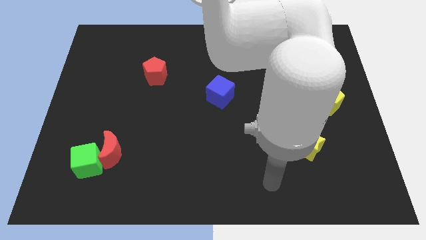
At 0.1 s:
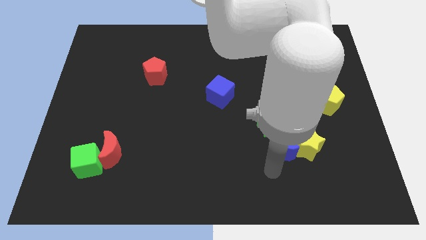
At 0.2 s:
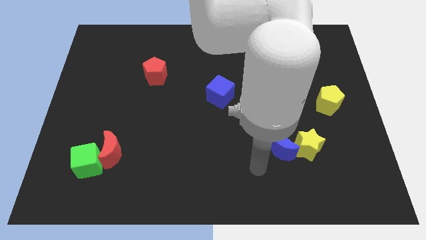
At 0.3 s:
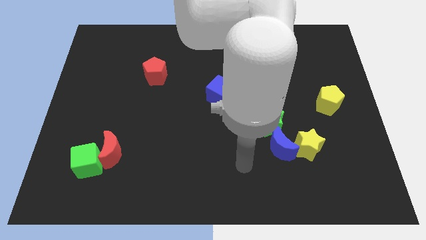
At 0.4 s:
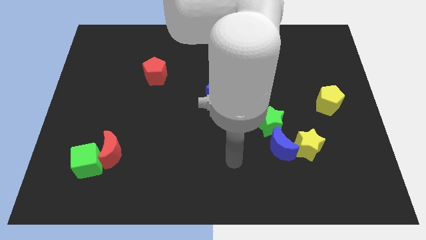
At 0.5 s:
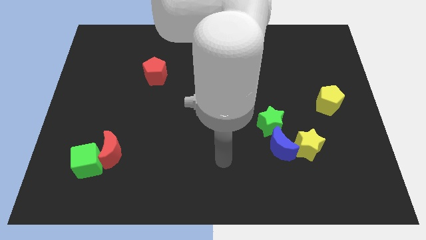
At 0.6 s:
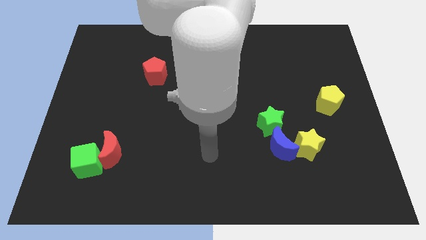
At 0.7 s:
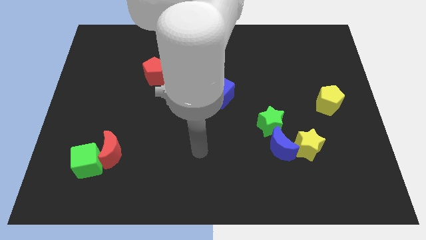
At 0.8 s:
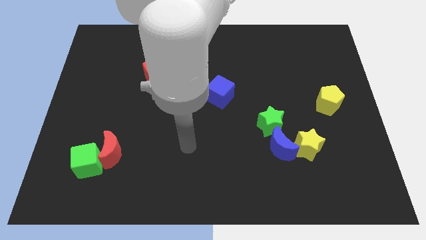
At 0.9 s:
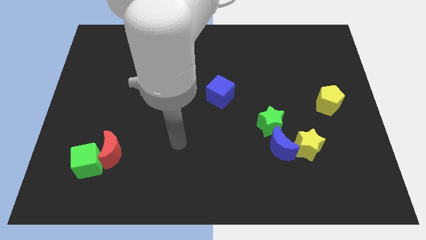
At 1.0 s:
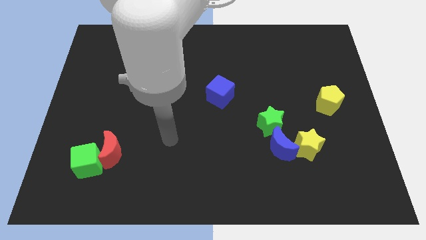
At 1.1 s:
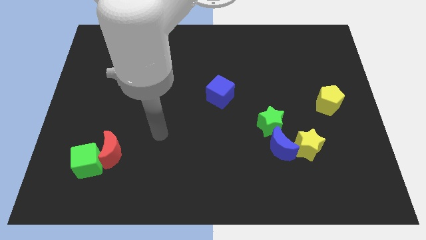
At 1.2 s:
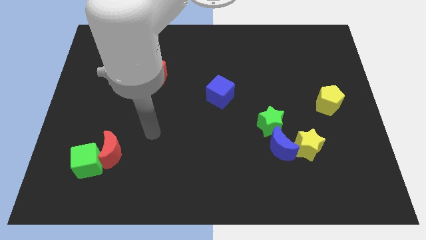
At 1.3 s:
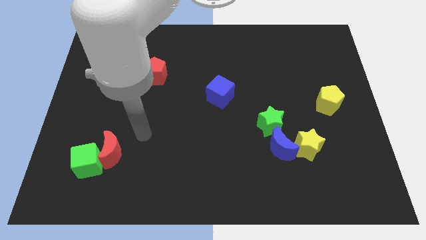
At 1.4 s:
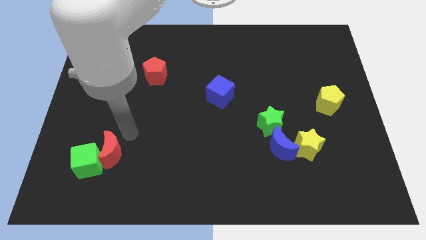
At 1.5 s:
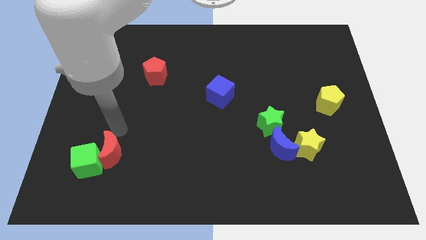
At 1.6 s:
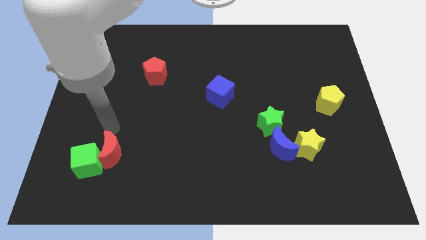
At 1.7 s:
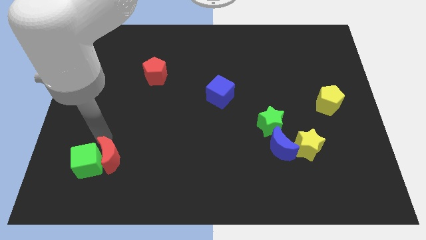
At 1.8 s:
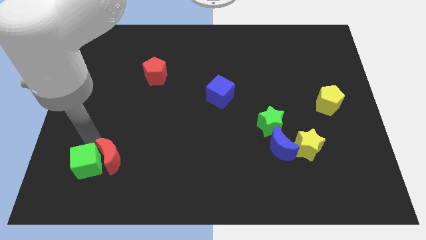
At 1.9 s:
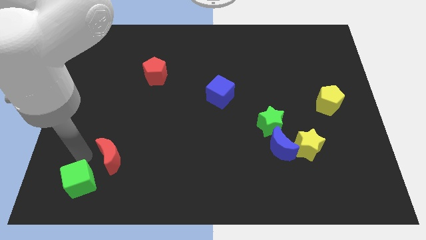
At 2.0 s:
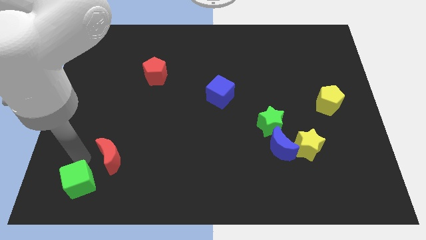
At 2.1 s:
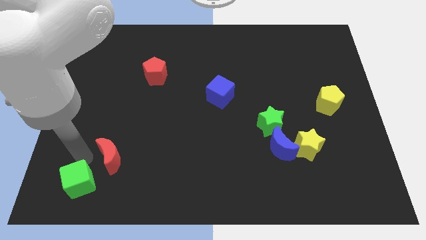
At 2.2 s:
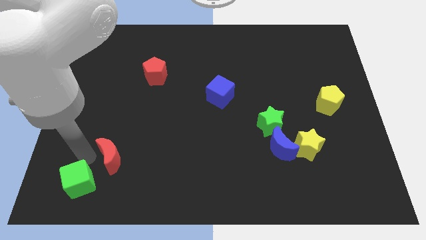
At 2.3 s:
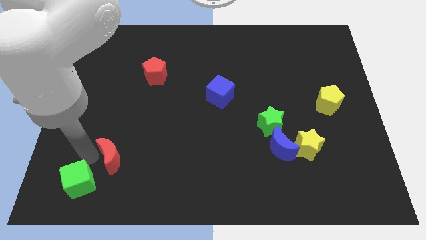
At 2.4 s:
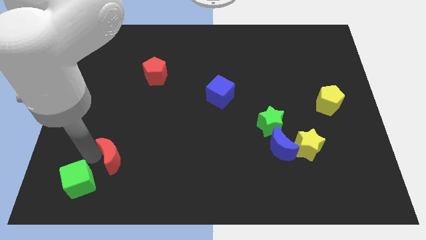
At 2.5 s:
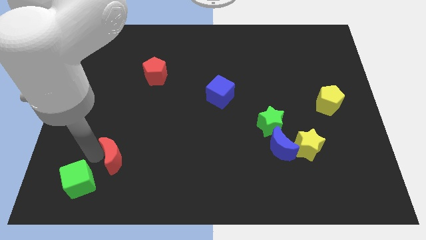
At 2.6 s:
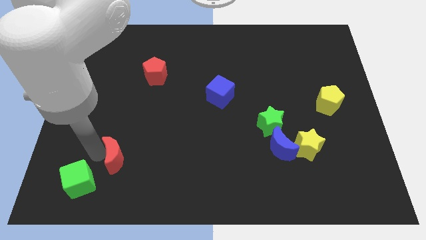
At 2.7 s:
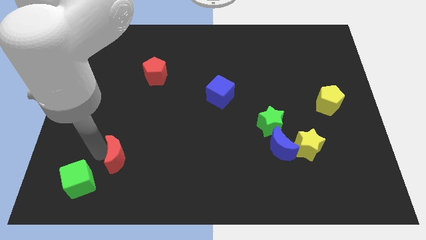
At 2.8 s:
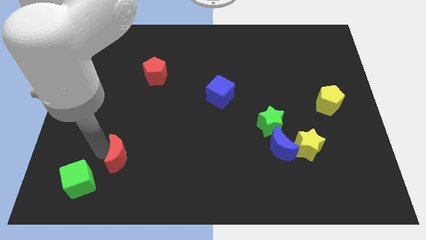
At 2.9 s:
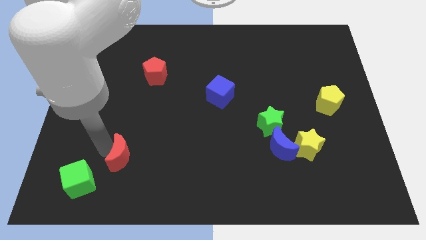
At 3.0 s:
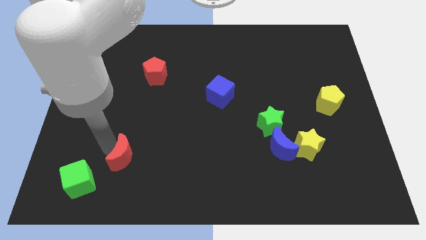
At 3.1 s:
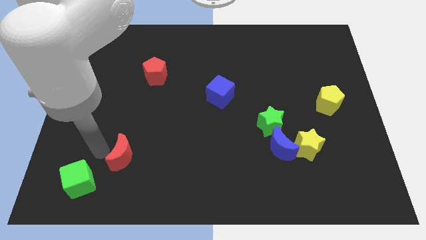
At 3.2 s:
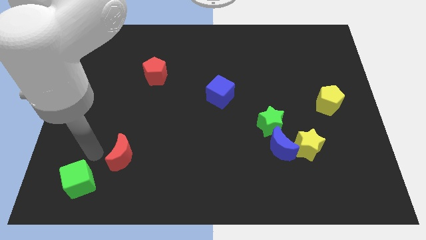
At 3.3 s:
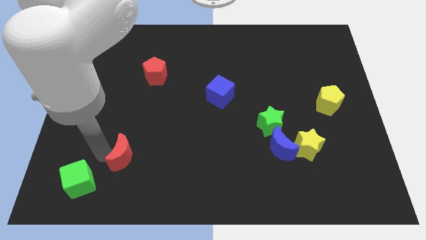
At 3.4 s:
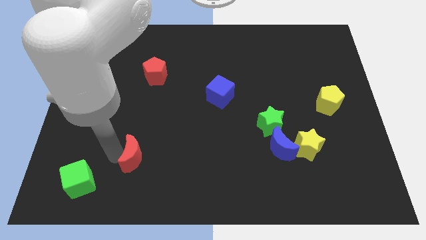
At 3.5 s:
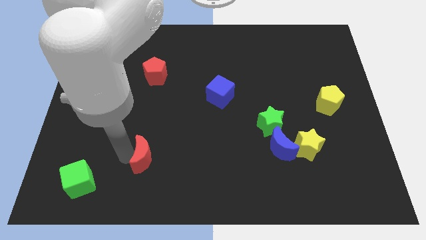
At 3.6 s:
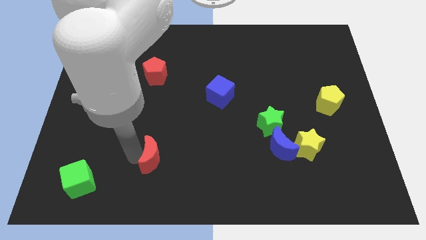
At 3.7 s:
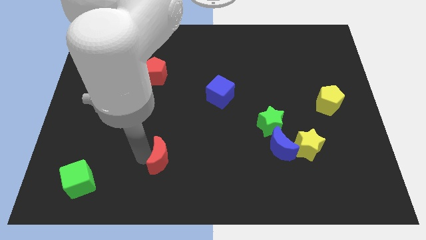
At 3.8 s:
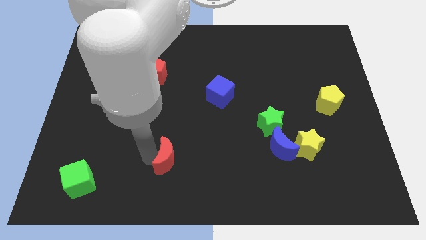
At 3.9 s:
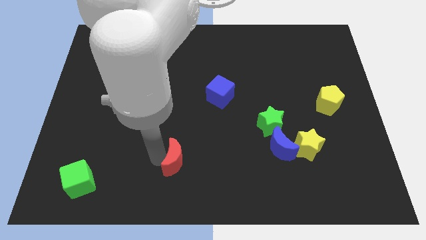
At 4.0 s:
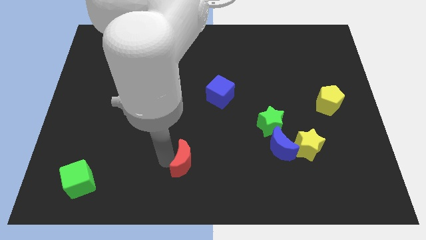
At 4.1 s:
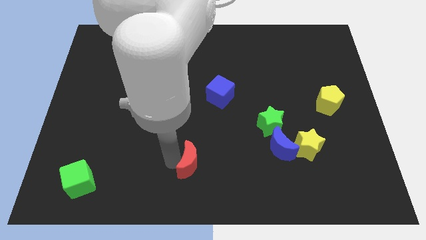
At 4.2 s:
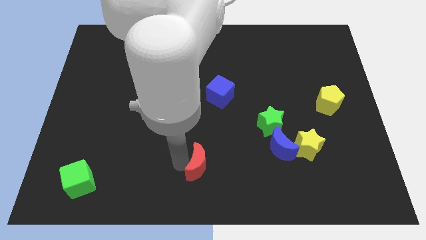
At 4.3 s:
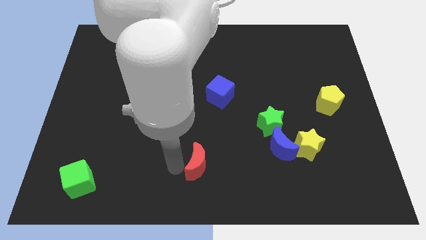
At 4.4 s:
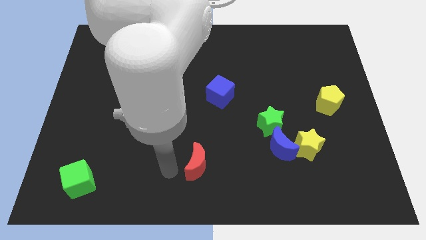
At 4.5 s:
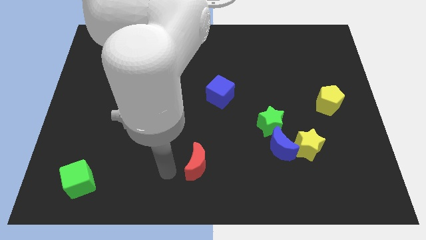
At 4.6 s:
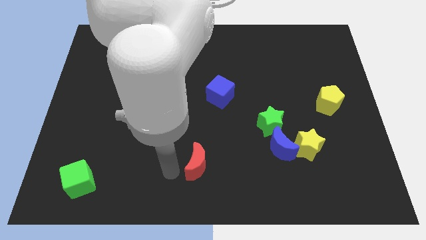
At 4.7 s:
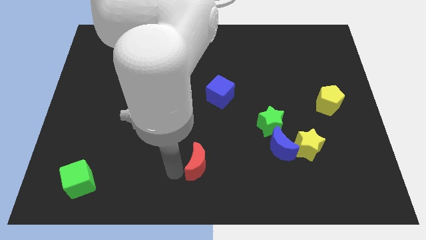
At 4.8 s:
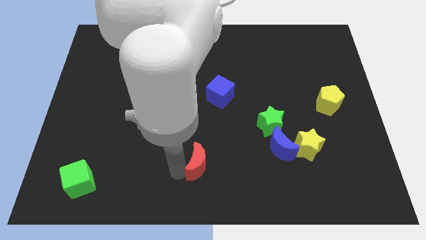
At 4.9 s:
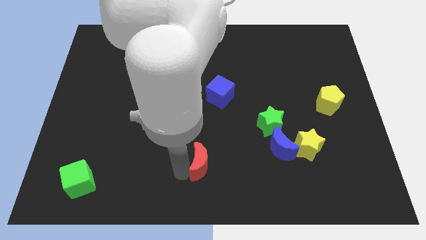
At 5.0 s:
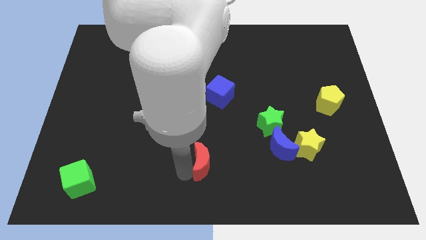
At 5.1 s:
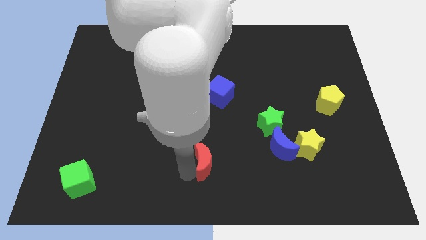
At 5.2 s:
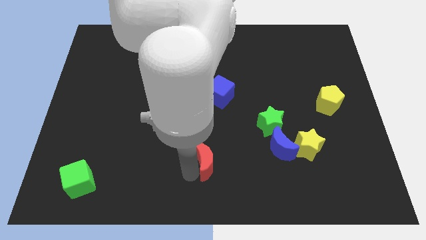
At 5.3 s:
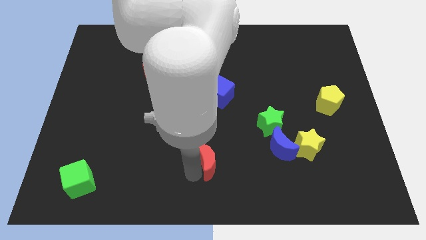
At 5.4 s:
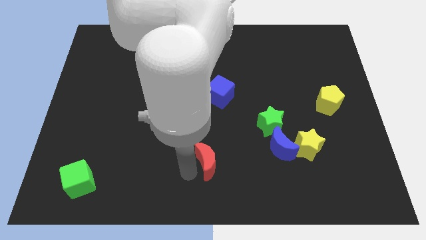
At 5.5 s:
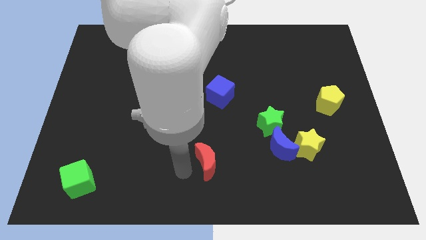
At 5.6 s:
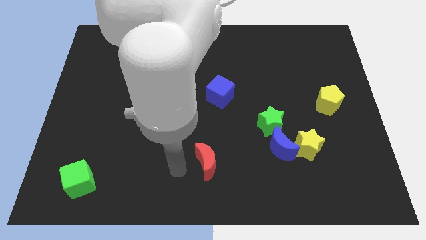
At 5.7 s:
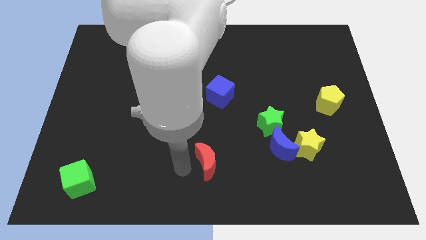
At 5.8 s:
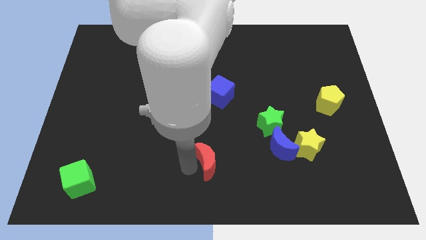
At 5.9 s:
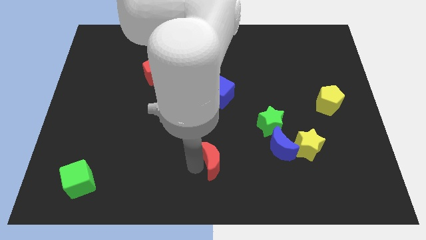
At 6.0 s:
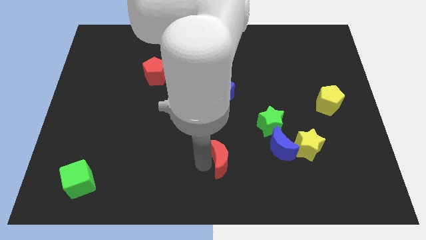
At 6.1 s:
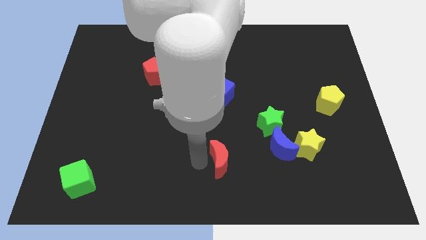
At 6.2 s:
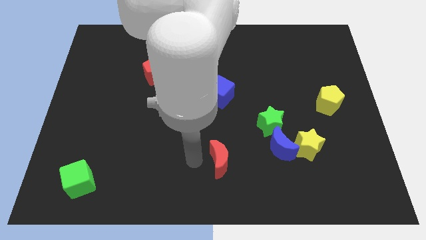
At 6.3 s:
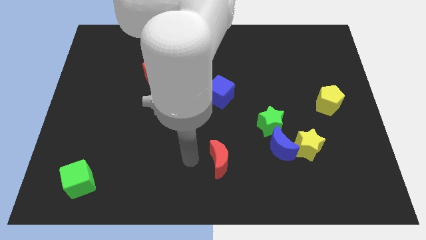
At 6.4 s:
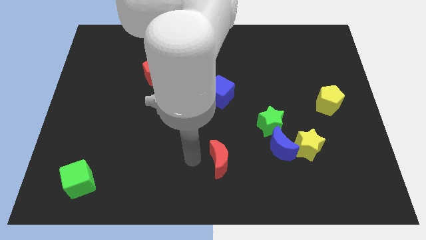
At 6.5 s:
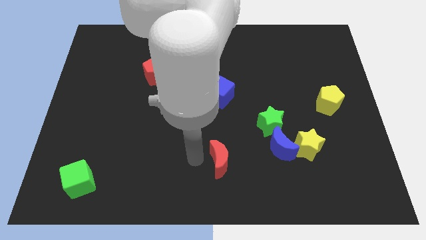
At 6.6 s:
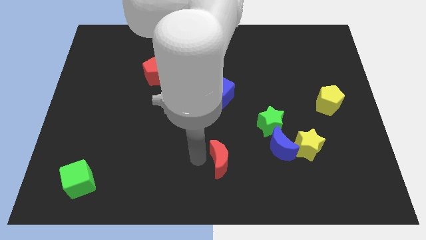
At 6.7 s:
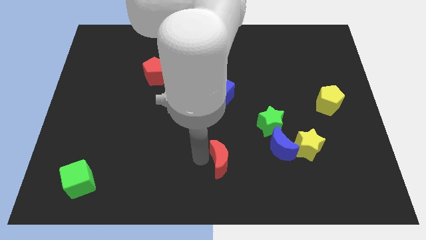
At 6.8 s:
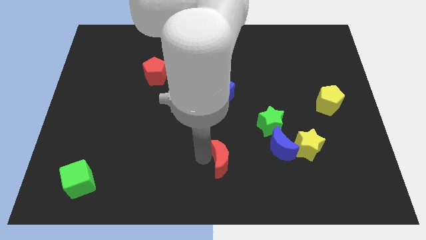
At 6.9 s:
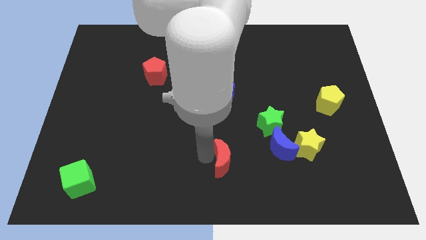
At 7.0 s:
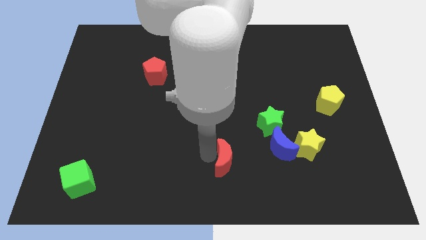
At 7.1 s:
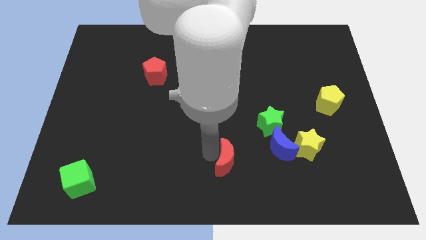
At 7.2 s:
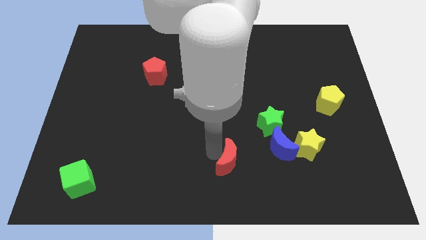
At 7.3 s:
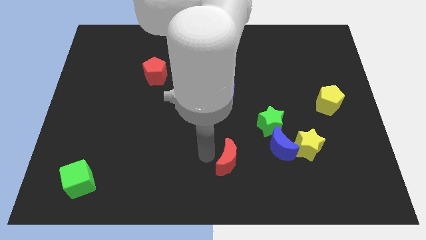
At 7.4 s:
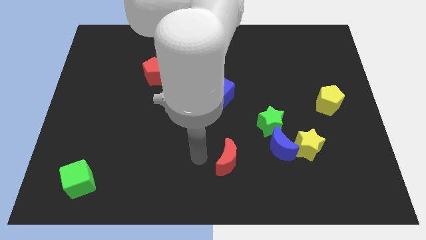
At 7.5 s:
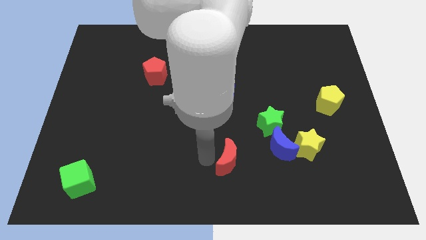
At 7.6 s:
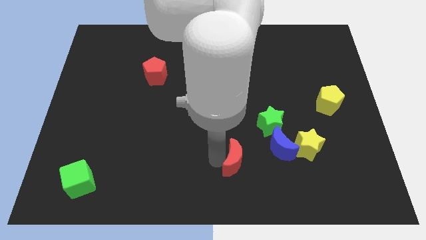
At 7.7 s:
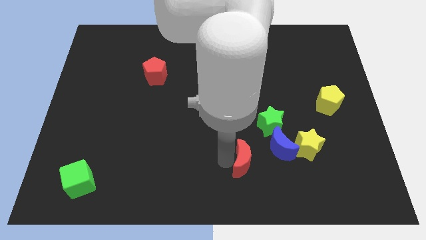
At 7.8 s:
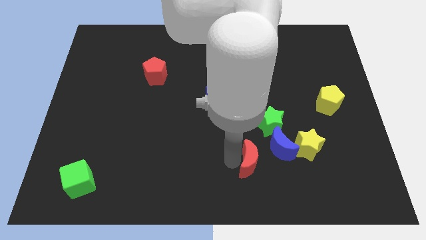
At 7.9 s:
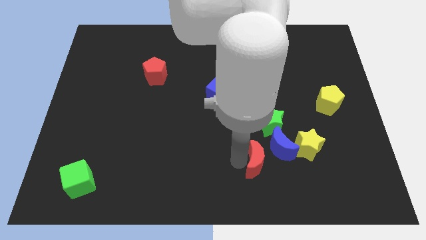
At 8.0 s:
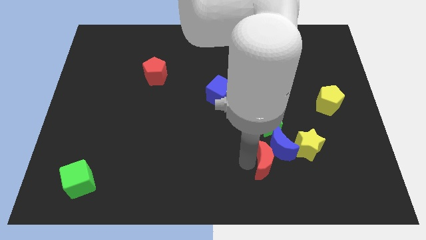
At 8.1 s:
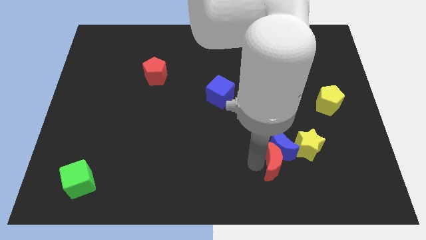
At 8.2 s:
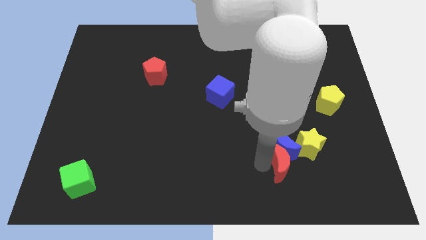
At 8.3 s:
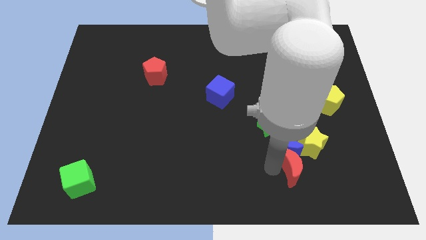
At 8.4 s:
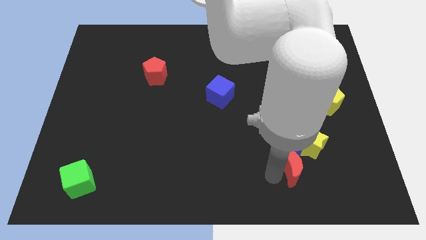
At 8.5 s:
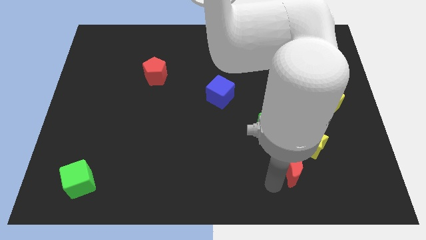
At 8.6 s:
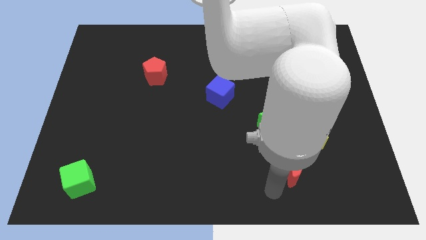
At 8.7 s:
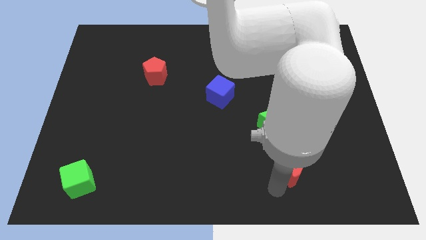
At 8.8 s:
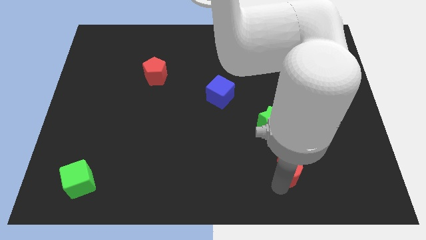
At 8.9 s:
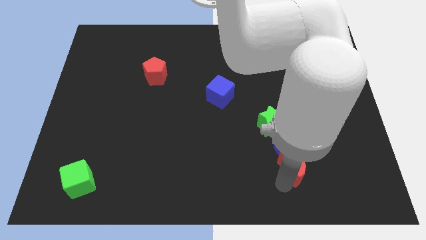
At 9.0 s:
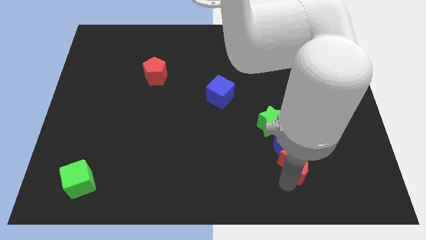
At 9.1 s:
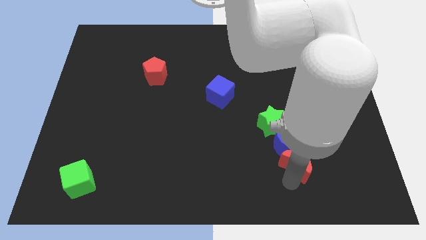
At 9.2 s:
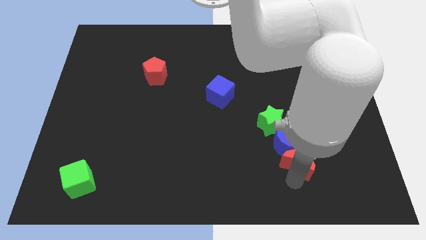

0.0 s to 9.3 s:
slide the red moon towards the yellow star
